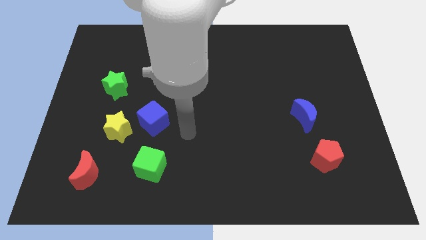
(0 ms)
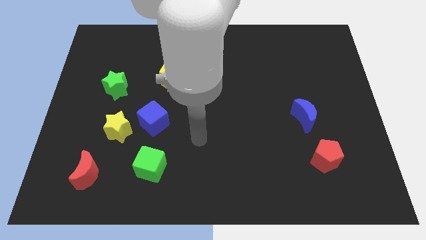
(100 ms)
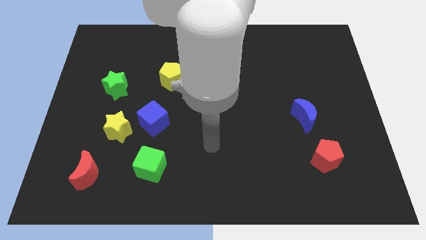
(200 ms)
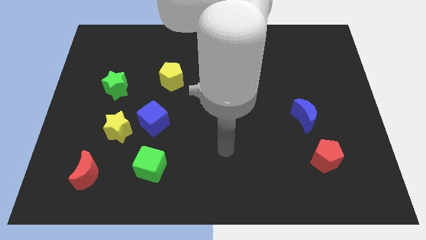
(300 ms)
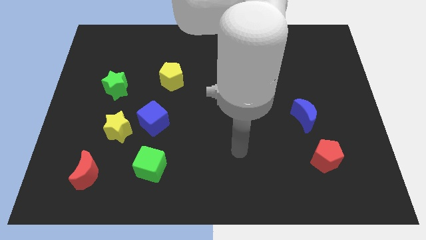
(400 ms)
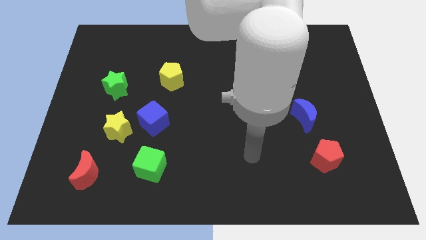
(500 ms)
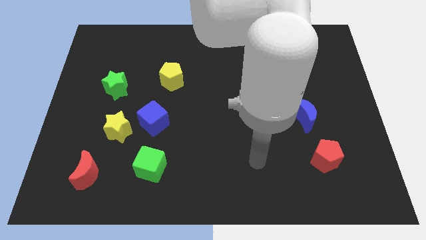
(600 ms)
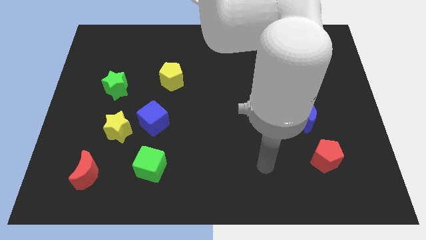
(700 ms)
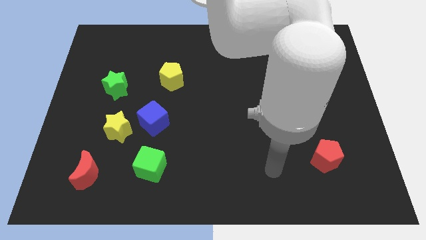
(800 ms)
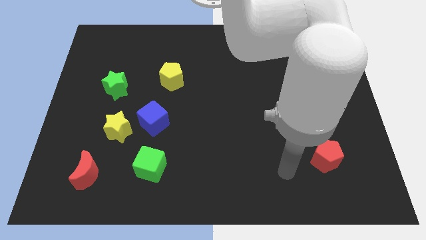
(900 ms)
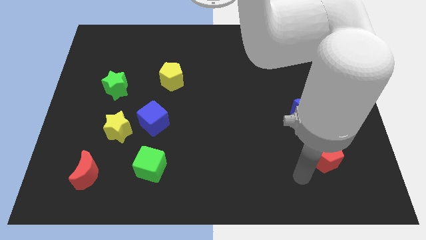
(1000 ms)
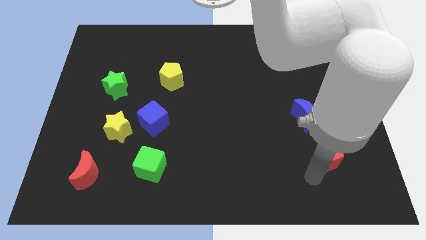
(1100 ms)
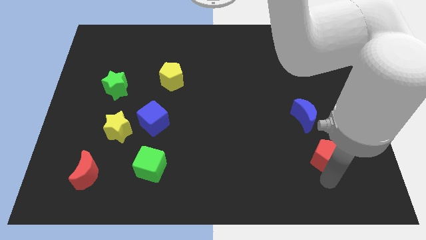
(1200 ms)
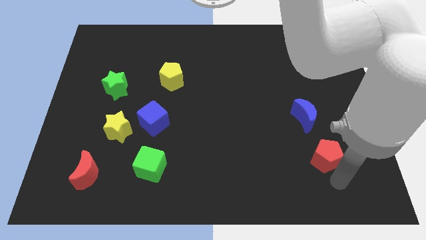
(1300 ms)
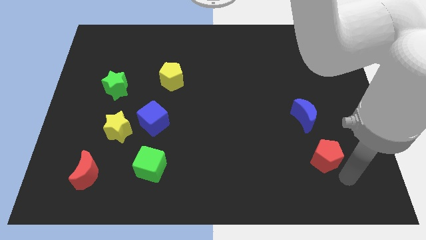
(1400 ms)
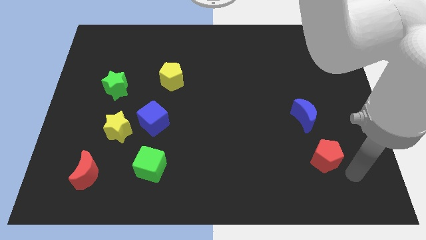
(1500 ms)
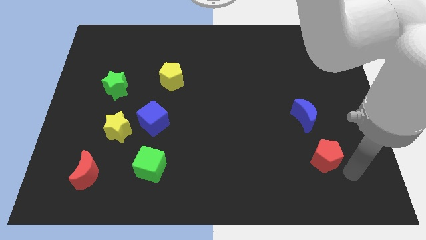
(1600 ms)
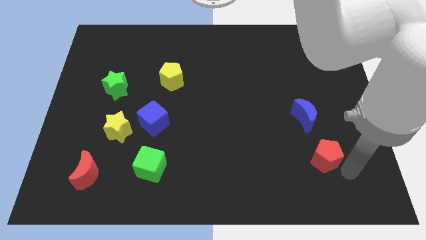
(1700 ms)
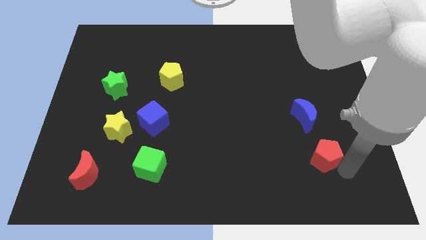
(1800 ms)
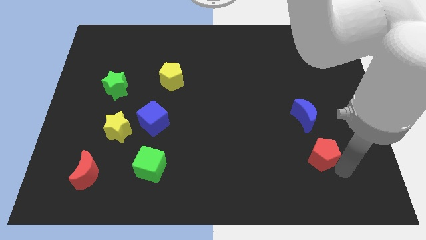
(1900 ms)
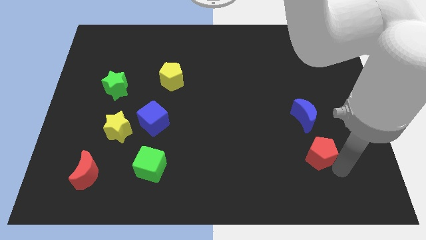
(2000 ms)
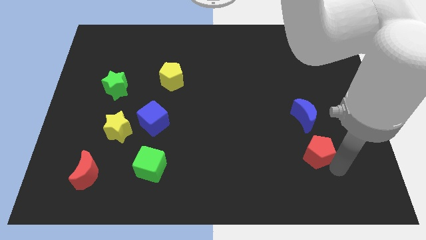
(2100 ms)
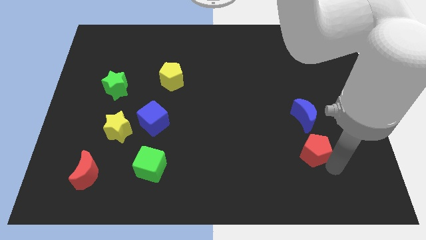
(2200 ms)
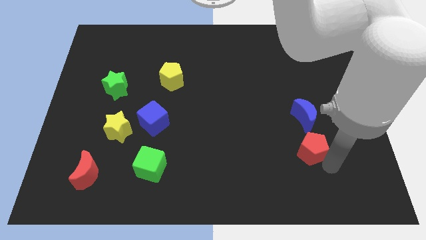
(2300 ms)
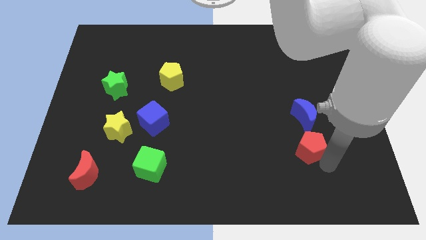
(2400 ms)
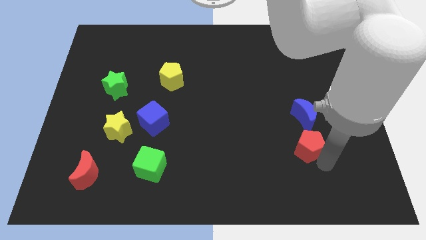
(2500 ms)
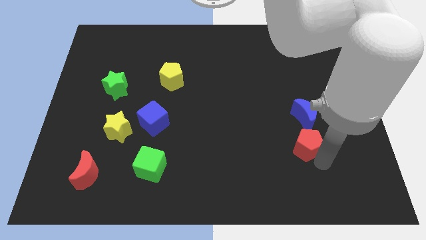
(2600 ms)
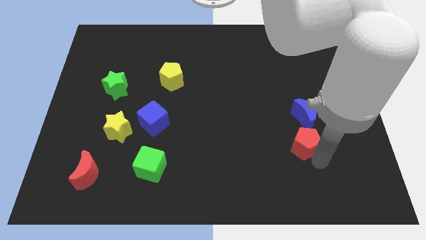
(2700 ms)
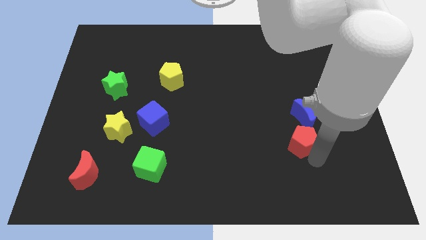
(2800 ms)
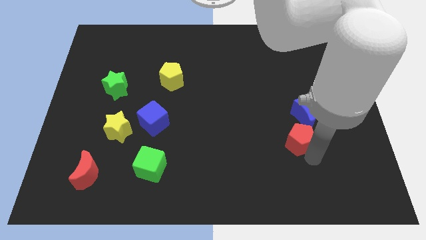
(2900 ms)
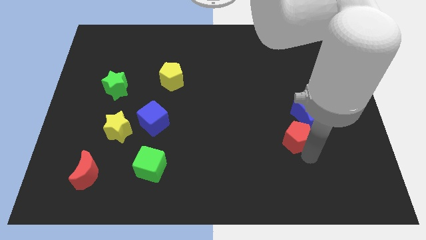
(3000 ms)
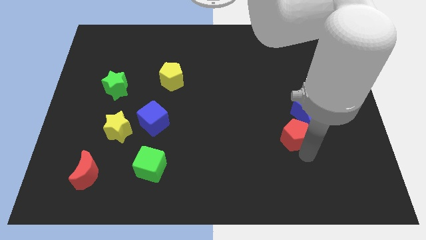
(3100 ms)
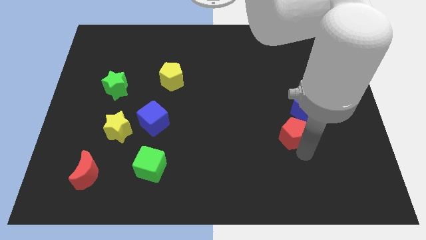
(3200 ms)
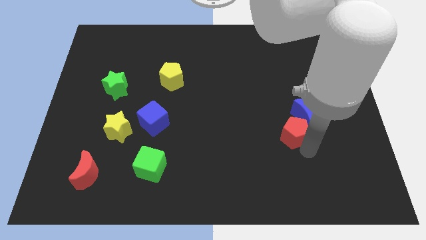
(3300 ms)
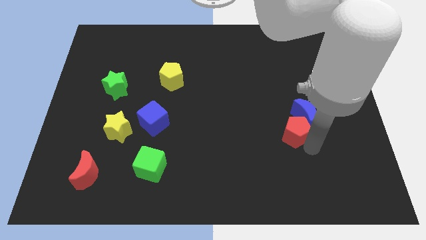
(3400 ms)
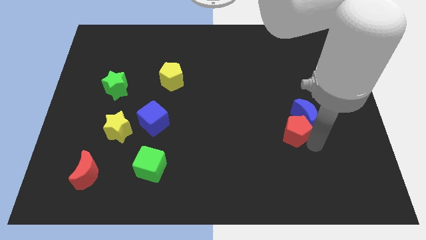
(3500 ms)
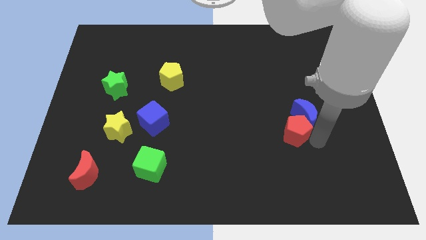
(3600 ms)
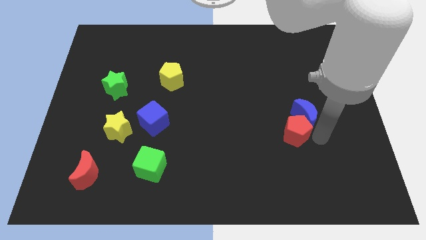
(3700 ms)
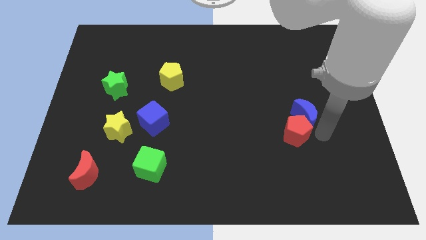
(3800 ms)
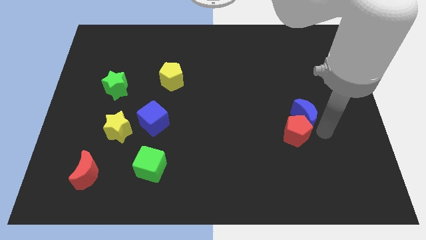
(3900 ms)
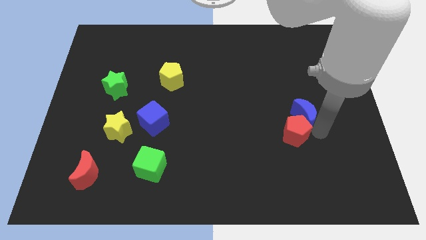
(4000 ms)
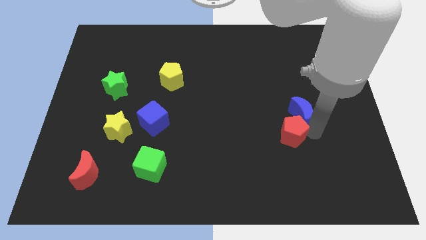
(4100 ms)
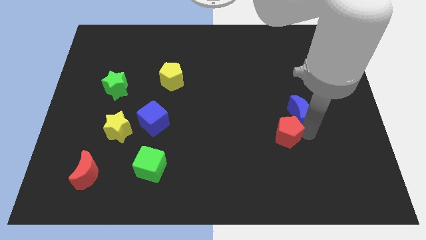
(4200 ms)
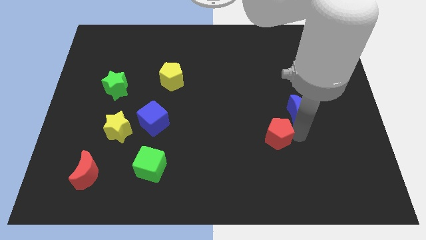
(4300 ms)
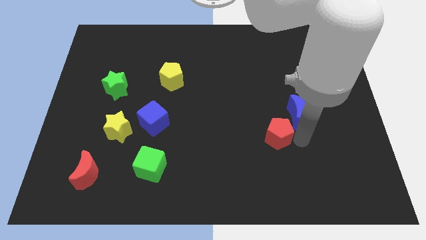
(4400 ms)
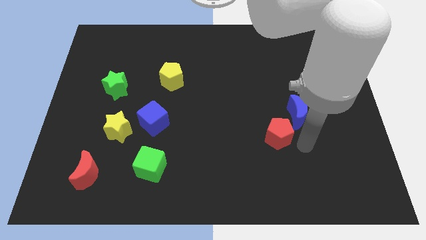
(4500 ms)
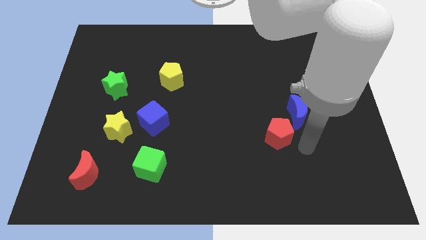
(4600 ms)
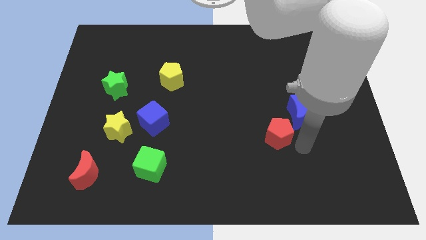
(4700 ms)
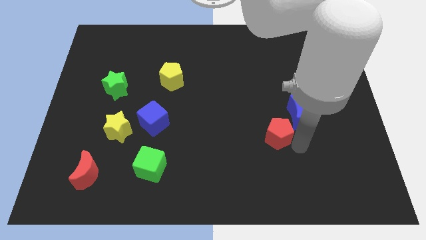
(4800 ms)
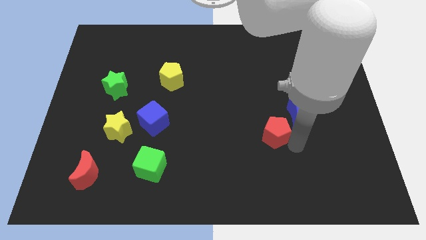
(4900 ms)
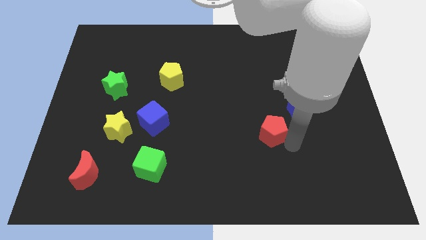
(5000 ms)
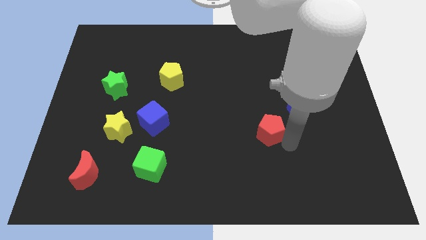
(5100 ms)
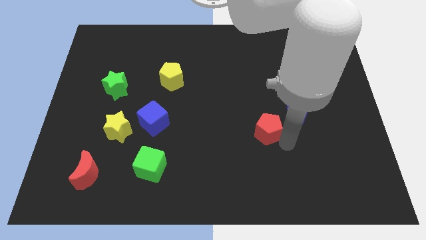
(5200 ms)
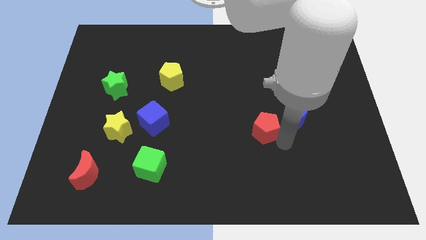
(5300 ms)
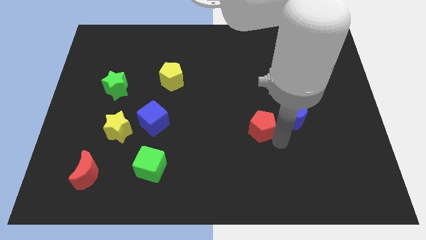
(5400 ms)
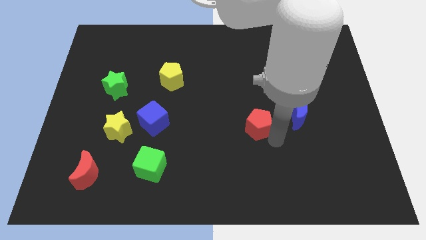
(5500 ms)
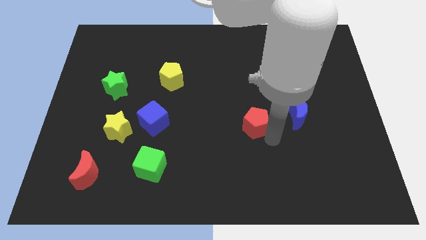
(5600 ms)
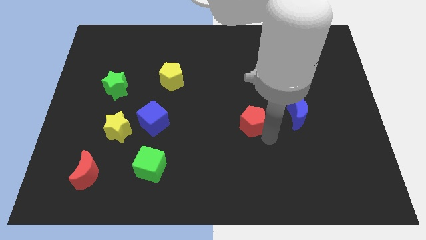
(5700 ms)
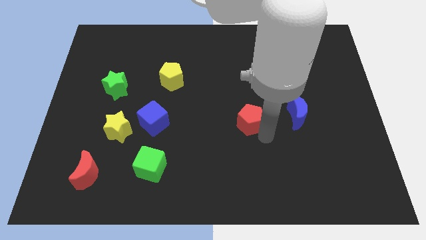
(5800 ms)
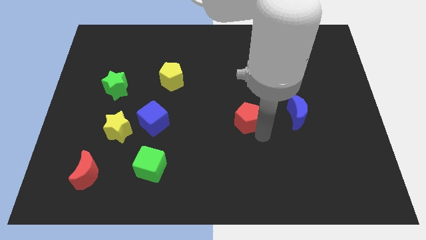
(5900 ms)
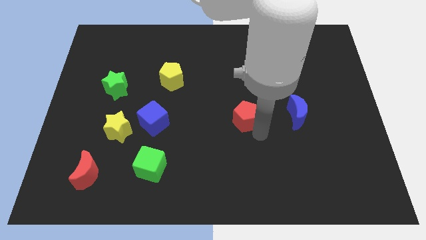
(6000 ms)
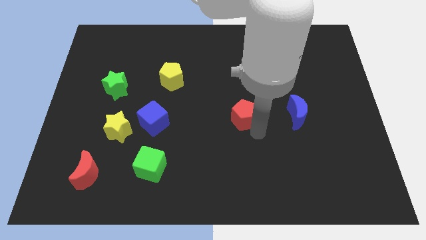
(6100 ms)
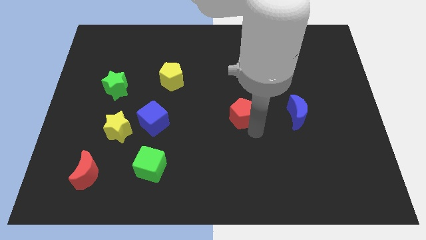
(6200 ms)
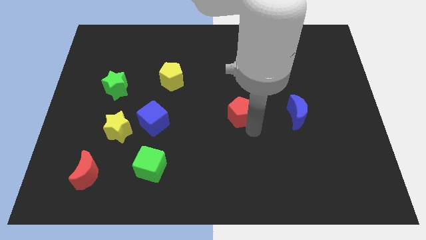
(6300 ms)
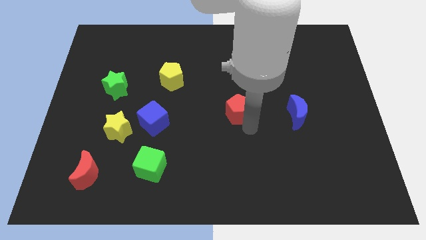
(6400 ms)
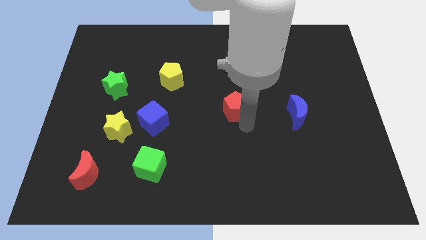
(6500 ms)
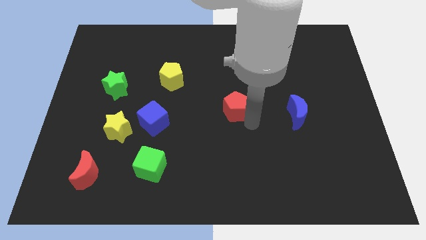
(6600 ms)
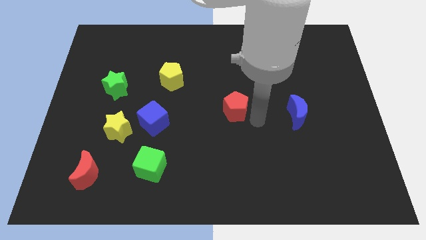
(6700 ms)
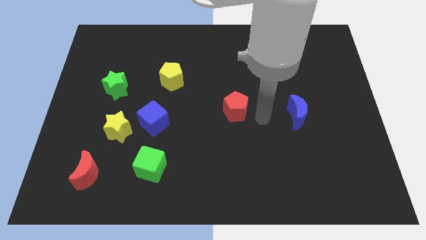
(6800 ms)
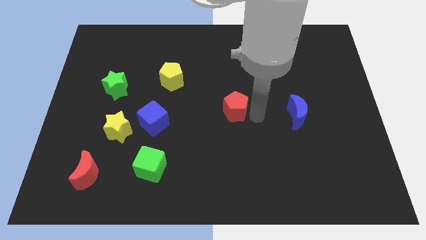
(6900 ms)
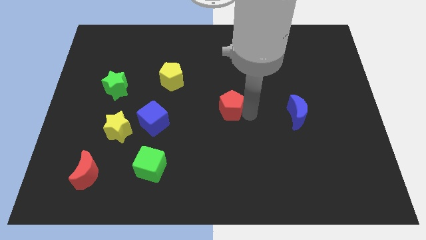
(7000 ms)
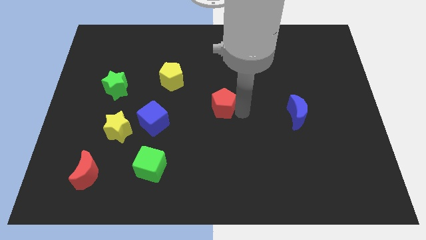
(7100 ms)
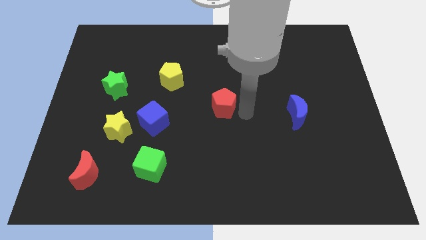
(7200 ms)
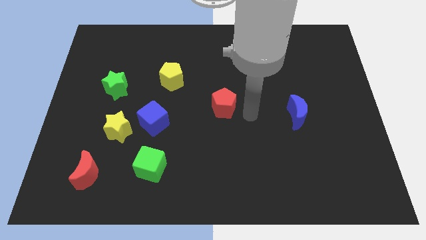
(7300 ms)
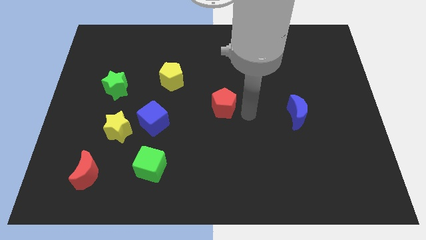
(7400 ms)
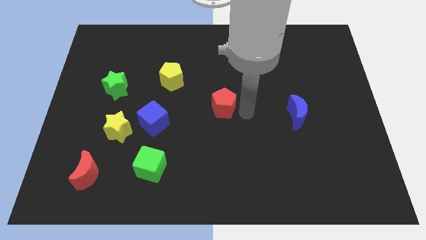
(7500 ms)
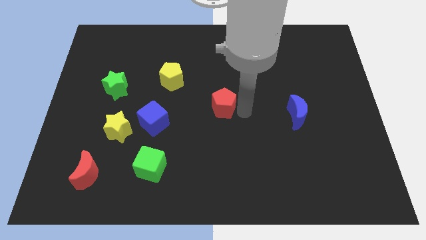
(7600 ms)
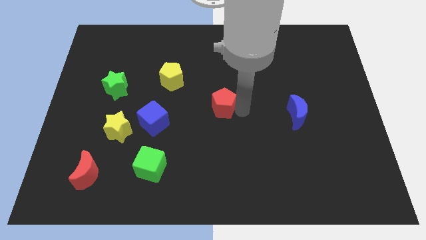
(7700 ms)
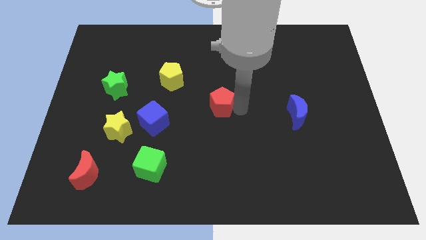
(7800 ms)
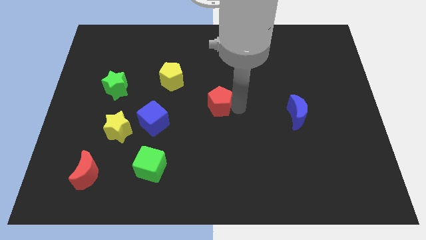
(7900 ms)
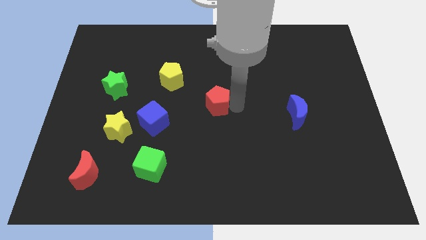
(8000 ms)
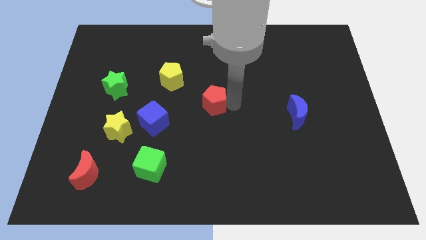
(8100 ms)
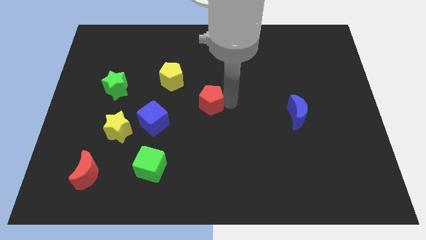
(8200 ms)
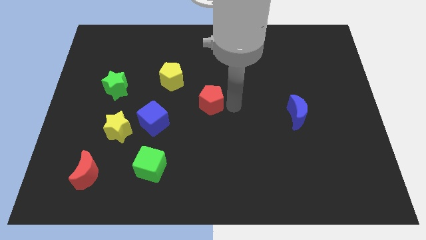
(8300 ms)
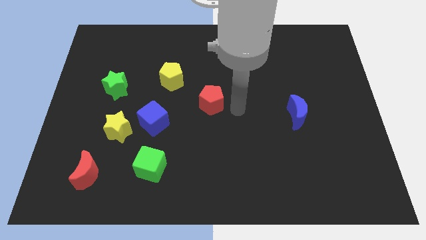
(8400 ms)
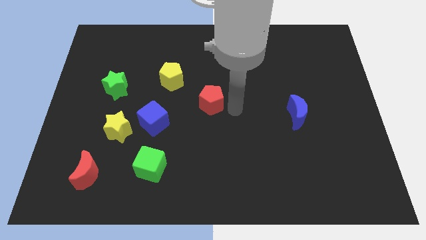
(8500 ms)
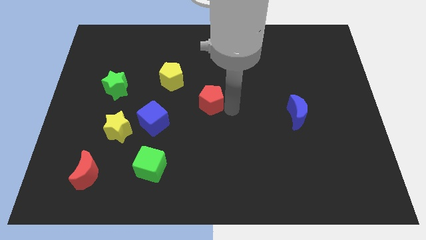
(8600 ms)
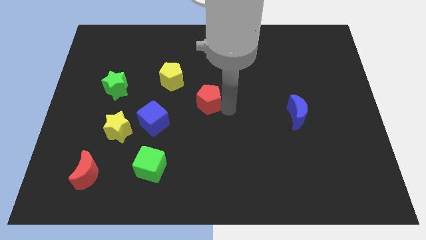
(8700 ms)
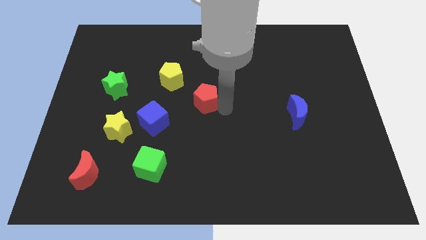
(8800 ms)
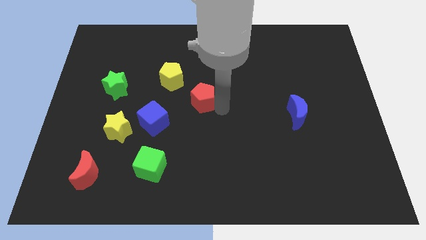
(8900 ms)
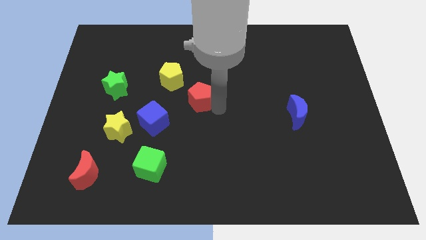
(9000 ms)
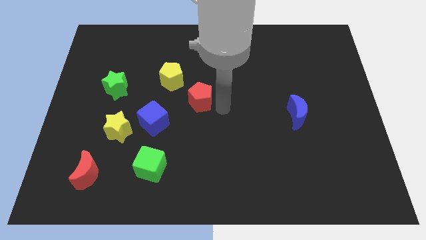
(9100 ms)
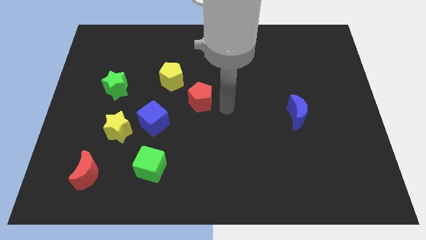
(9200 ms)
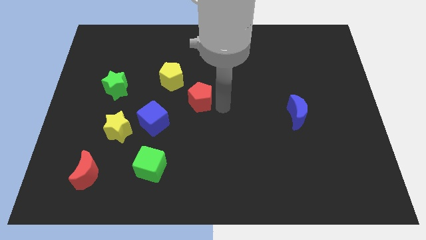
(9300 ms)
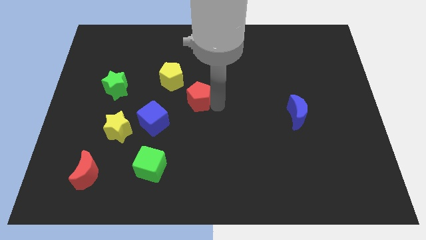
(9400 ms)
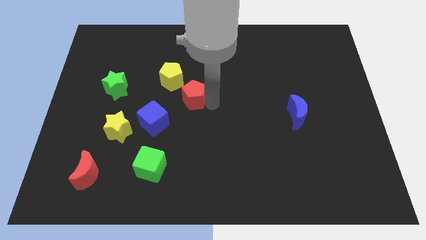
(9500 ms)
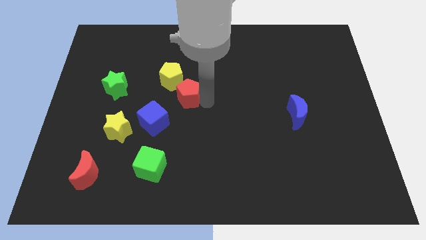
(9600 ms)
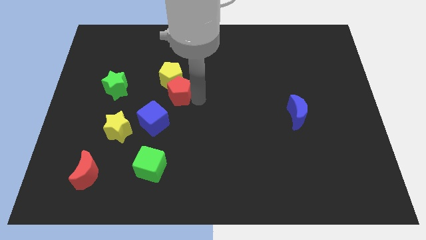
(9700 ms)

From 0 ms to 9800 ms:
slide the red pentagon just right of the green star
